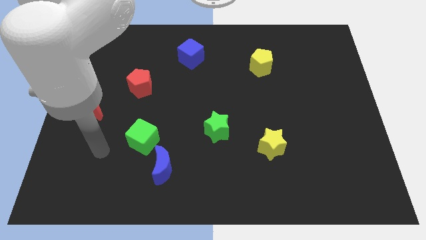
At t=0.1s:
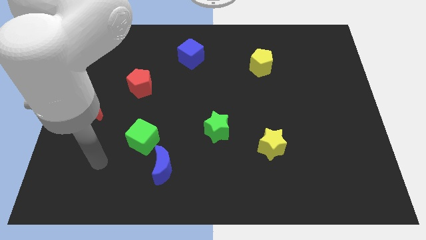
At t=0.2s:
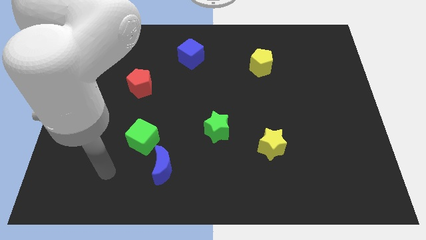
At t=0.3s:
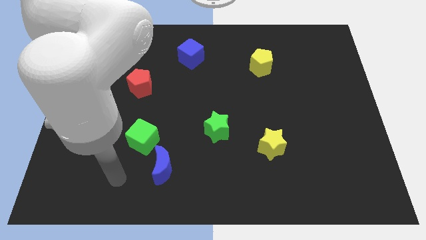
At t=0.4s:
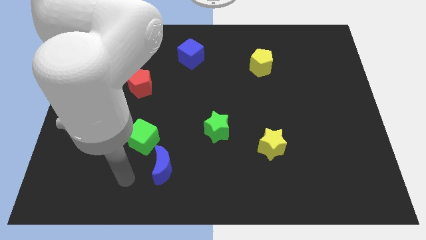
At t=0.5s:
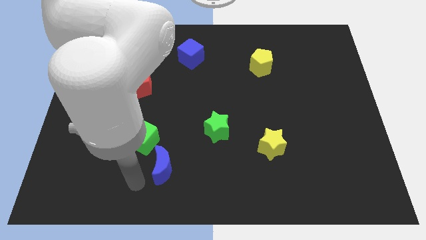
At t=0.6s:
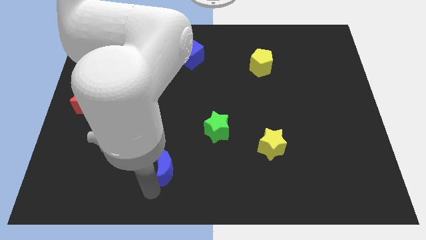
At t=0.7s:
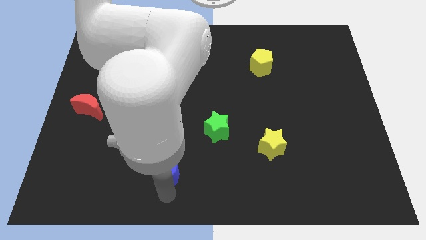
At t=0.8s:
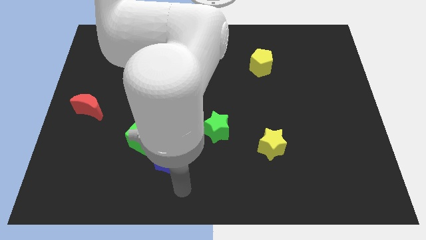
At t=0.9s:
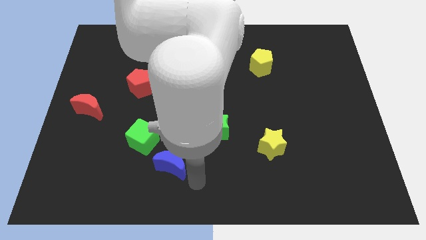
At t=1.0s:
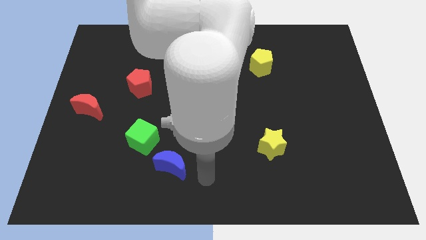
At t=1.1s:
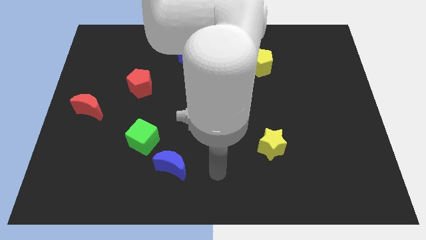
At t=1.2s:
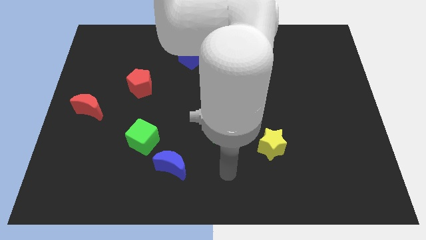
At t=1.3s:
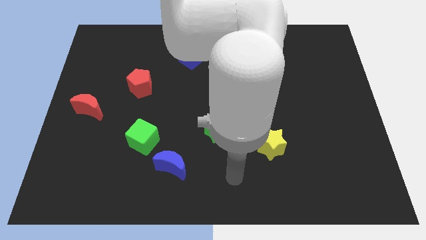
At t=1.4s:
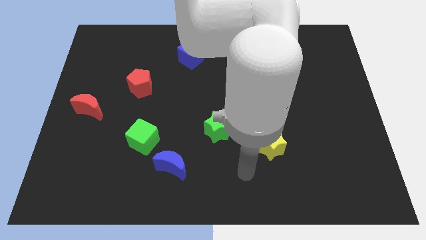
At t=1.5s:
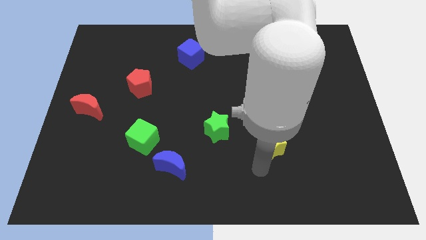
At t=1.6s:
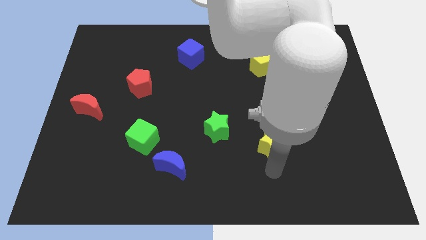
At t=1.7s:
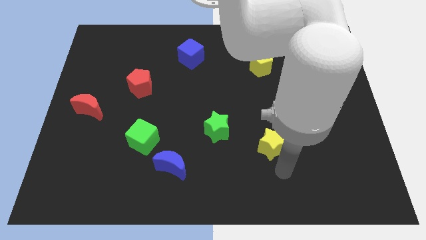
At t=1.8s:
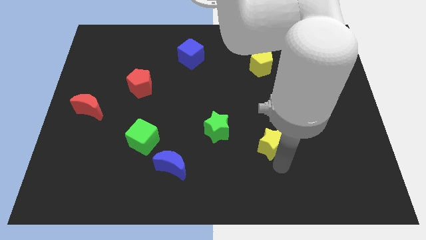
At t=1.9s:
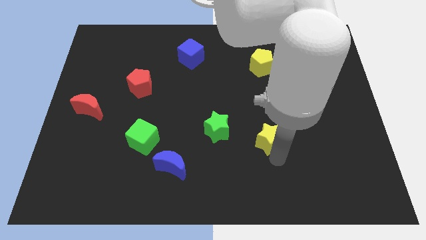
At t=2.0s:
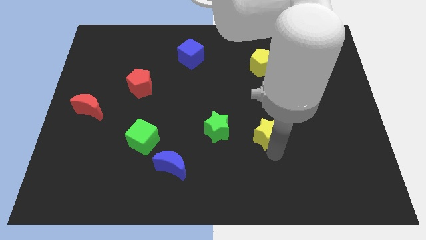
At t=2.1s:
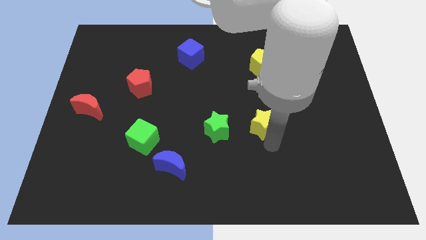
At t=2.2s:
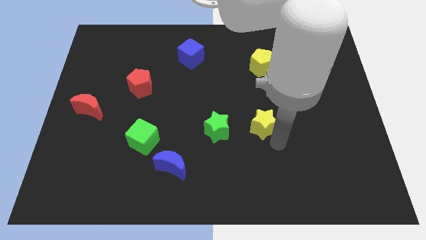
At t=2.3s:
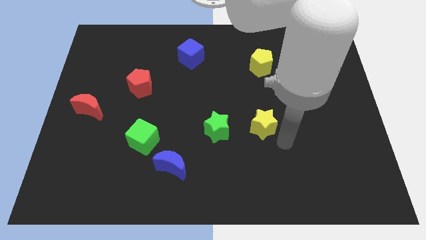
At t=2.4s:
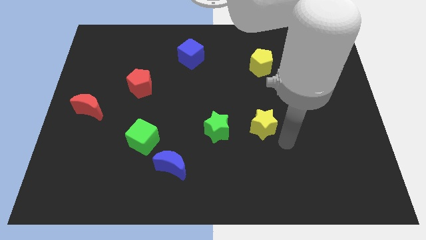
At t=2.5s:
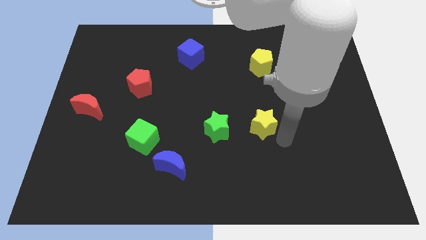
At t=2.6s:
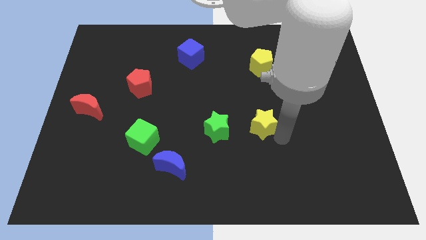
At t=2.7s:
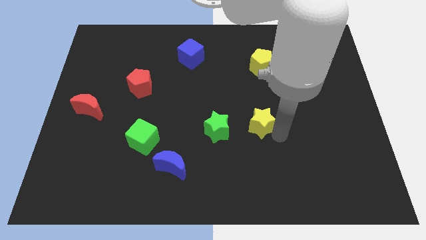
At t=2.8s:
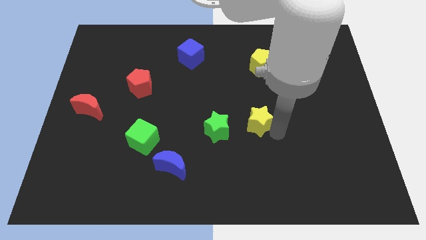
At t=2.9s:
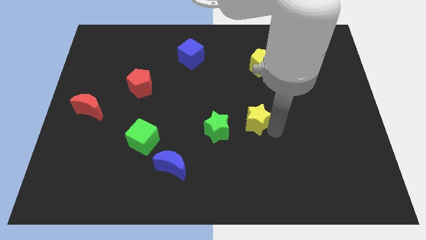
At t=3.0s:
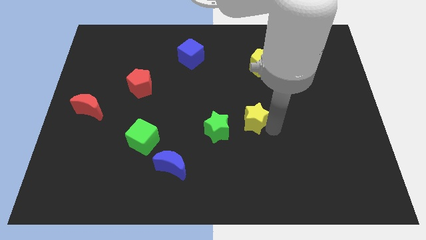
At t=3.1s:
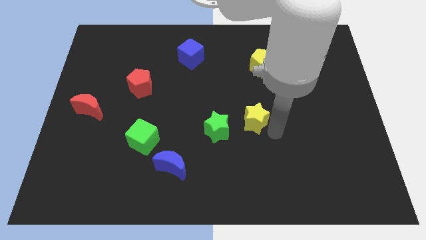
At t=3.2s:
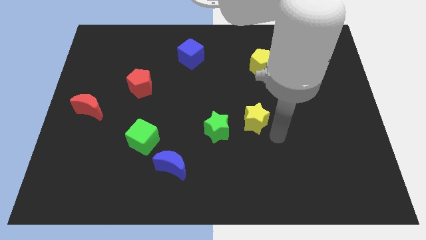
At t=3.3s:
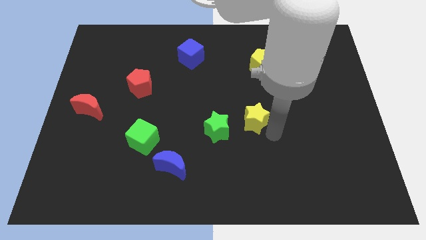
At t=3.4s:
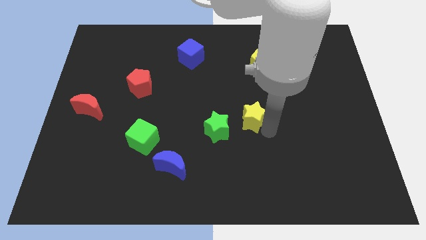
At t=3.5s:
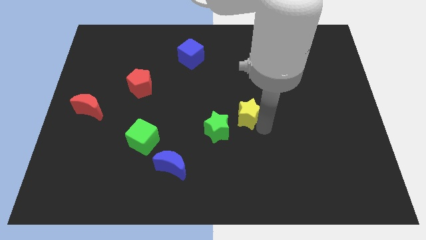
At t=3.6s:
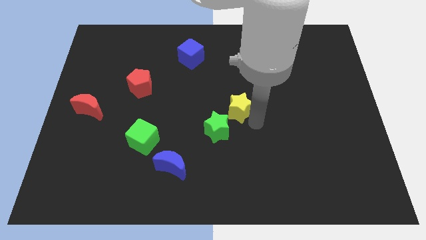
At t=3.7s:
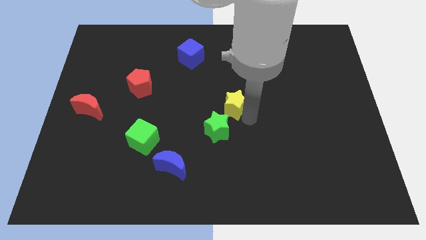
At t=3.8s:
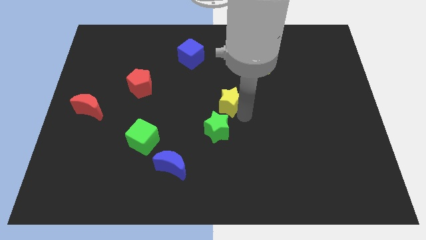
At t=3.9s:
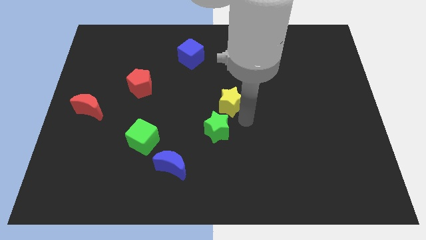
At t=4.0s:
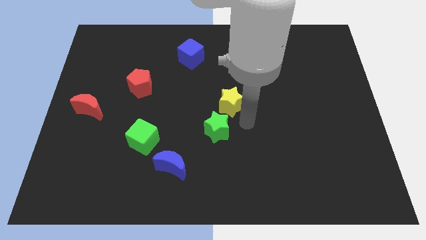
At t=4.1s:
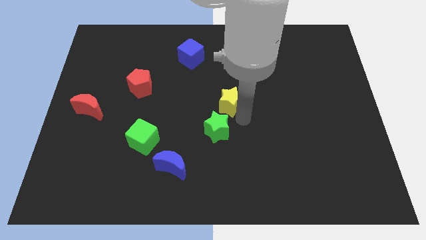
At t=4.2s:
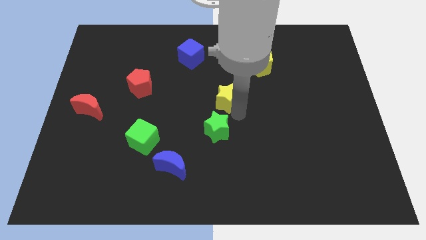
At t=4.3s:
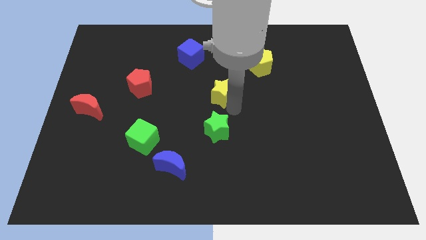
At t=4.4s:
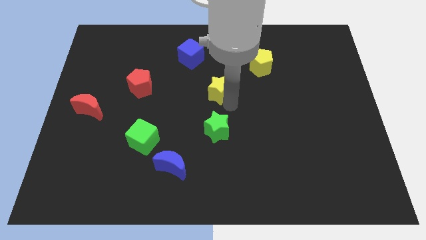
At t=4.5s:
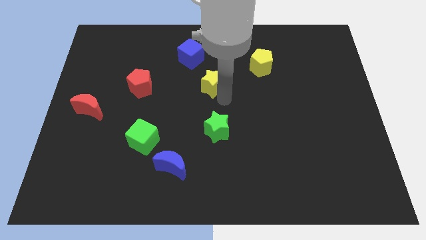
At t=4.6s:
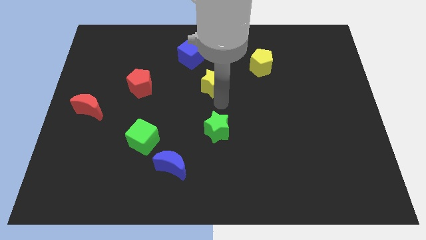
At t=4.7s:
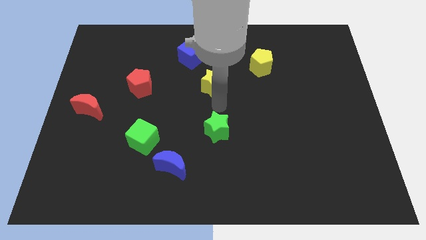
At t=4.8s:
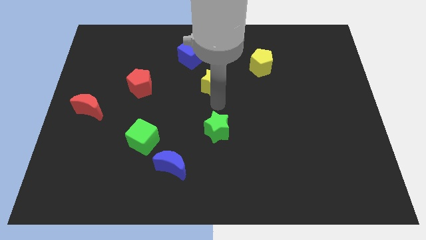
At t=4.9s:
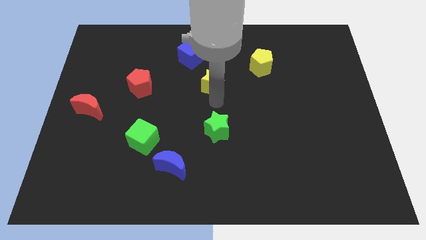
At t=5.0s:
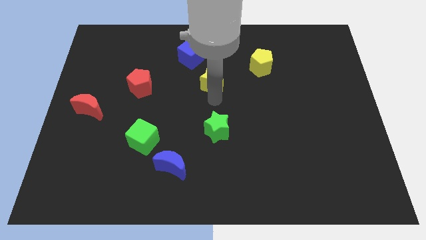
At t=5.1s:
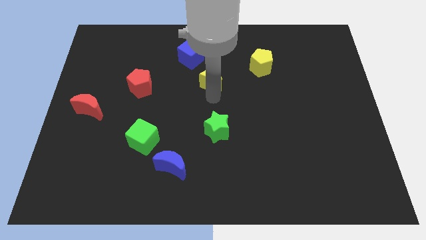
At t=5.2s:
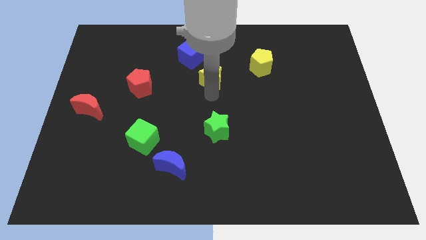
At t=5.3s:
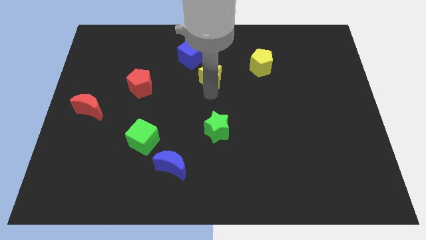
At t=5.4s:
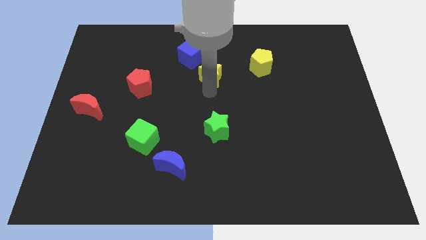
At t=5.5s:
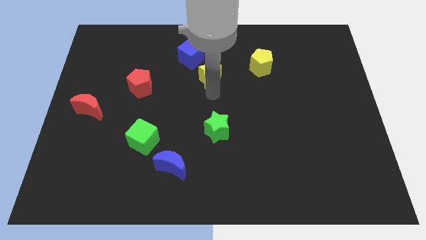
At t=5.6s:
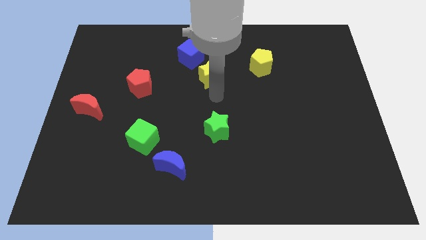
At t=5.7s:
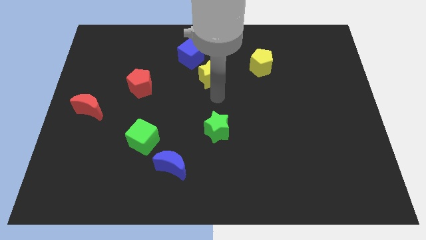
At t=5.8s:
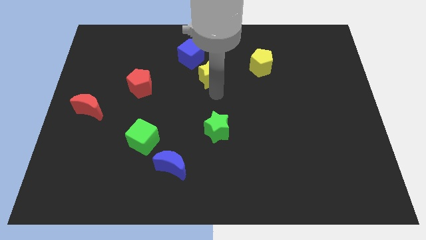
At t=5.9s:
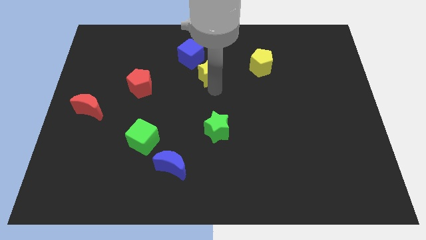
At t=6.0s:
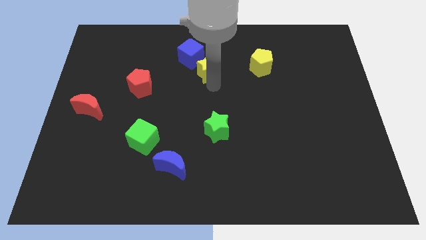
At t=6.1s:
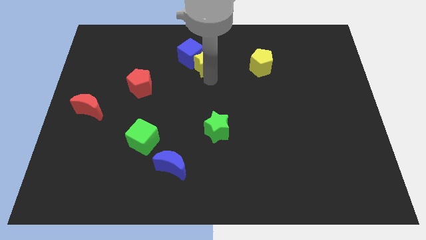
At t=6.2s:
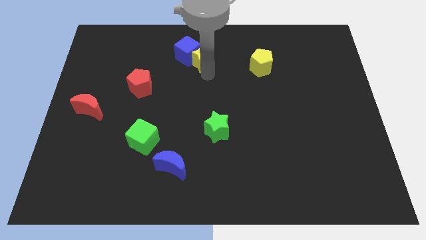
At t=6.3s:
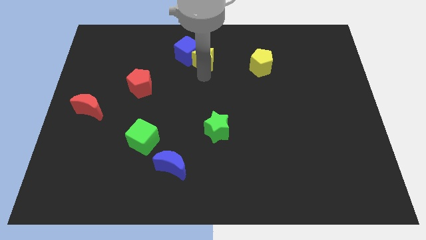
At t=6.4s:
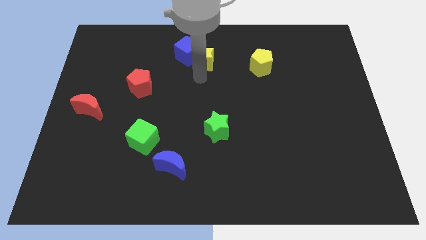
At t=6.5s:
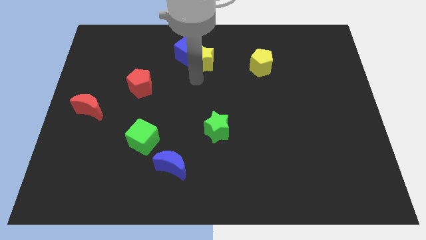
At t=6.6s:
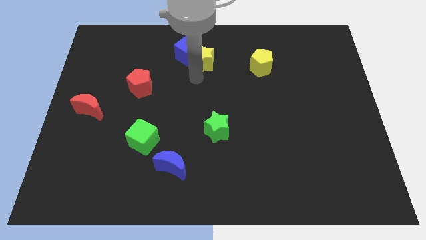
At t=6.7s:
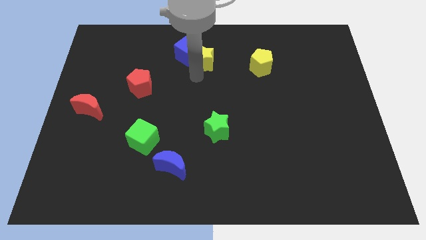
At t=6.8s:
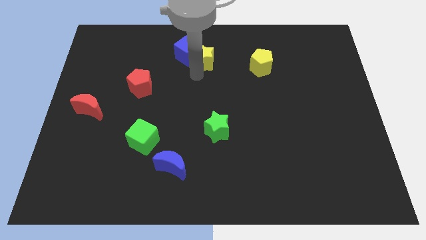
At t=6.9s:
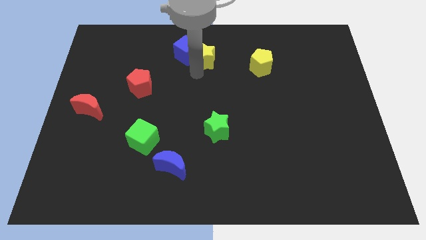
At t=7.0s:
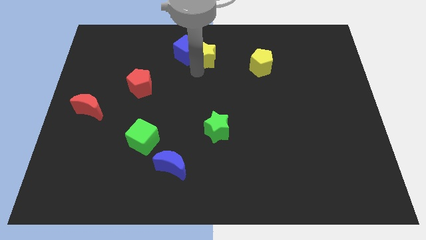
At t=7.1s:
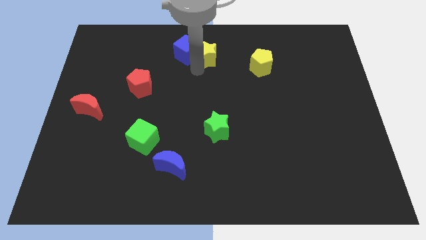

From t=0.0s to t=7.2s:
move the yellow star to the top side
